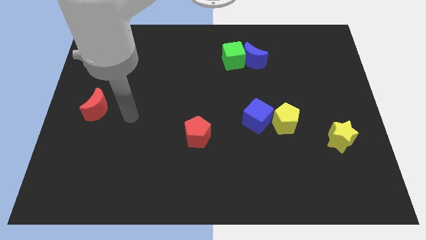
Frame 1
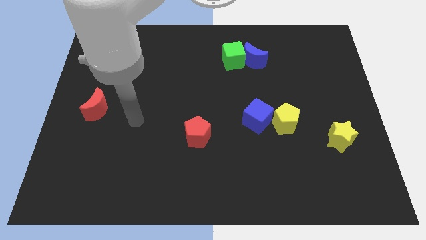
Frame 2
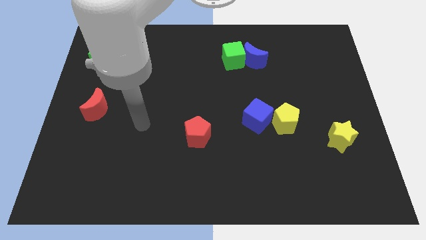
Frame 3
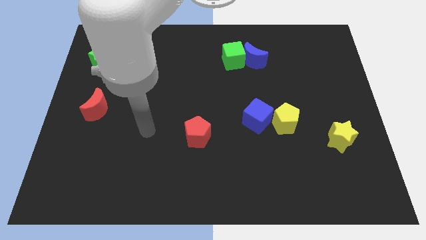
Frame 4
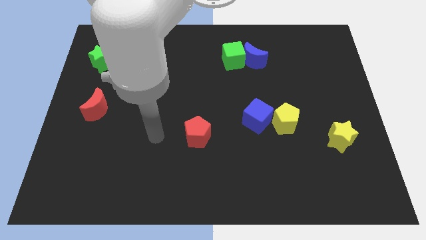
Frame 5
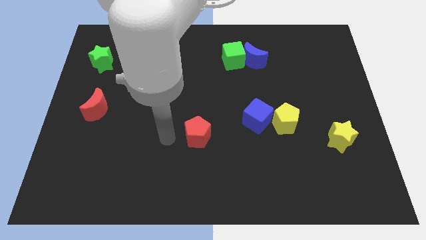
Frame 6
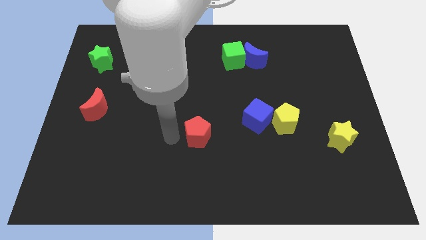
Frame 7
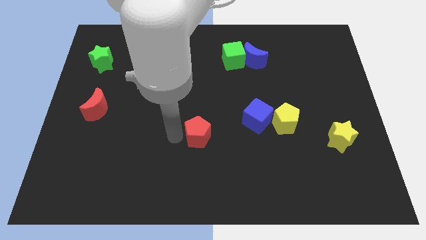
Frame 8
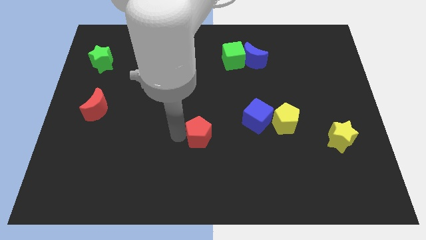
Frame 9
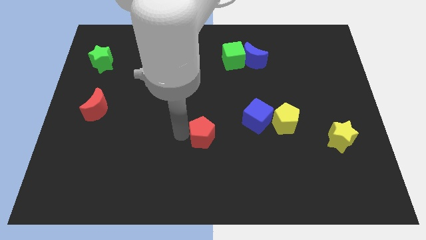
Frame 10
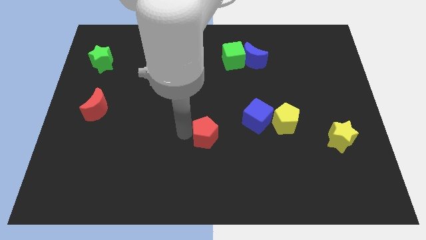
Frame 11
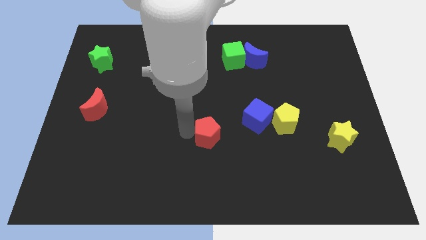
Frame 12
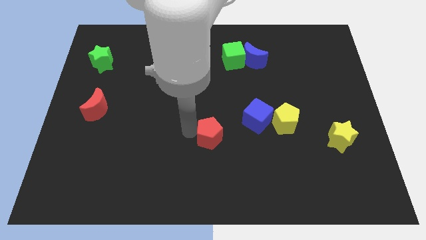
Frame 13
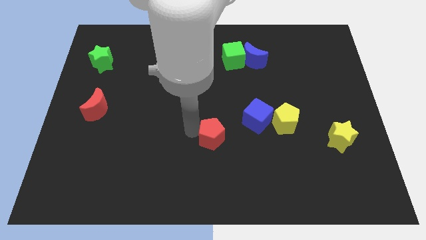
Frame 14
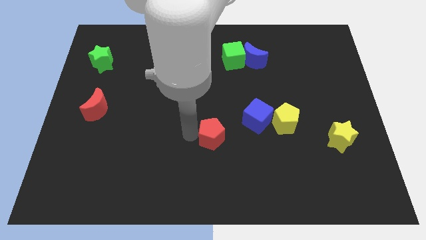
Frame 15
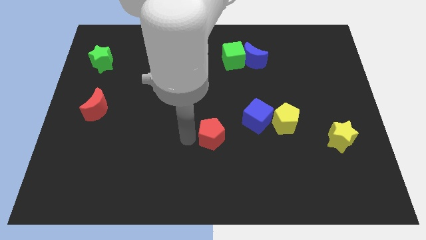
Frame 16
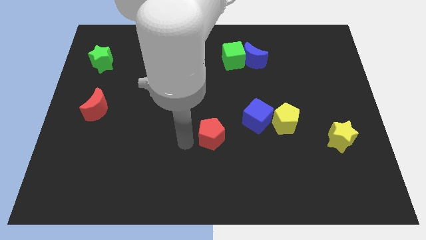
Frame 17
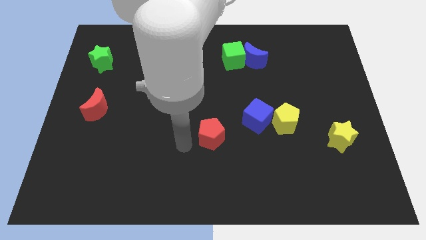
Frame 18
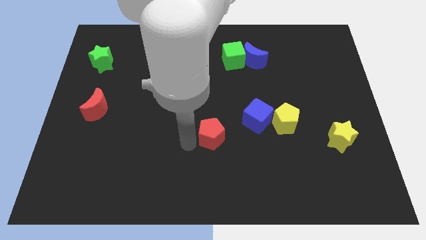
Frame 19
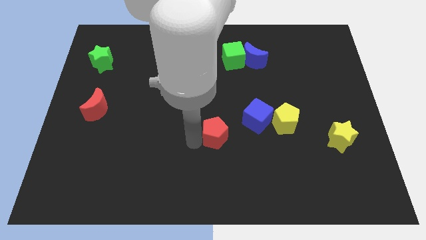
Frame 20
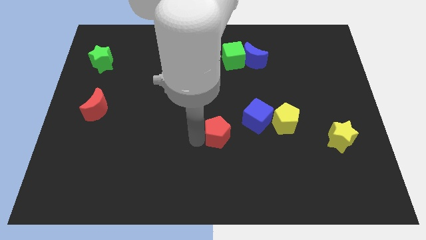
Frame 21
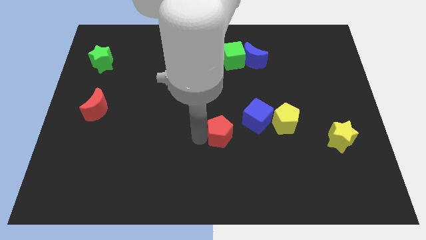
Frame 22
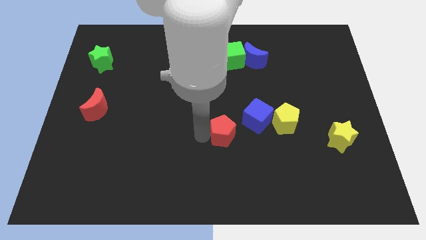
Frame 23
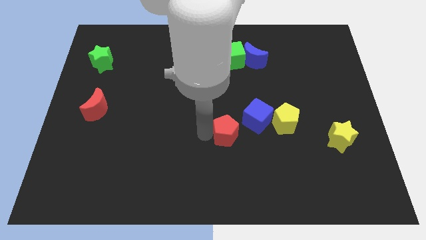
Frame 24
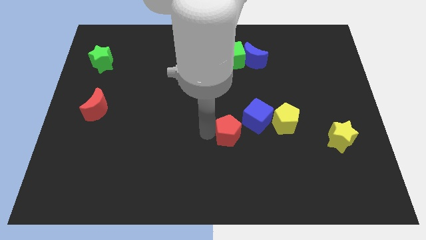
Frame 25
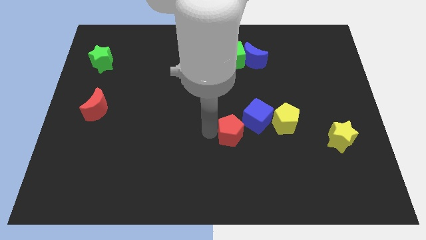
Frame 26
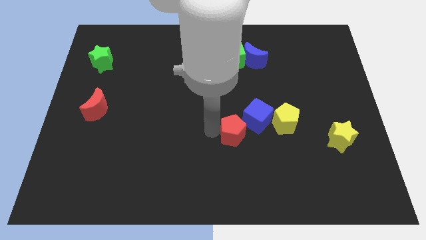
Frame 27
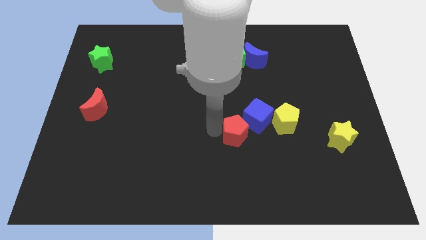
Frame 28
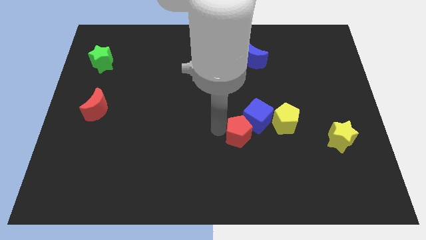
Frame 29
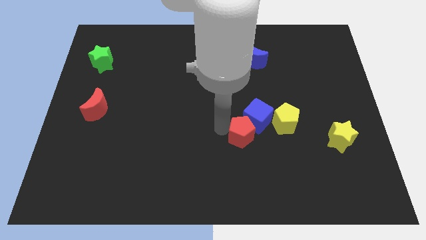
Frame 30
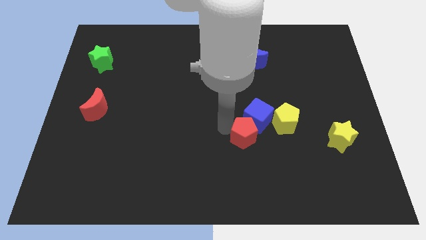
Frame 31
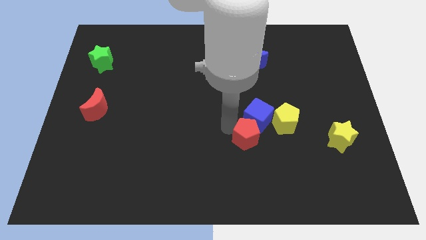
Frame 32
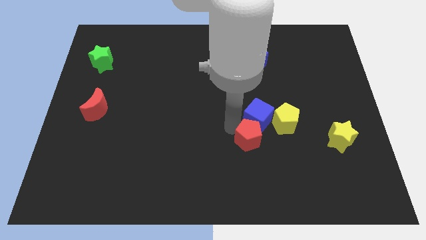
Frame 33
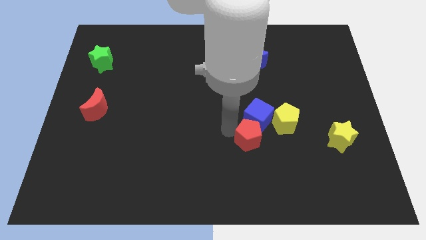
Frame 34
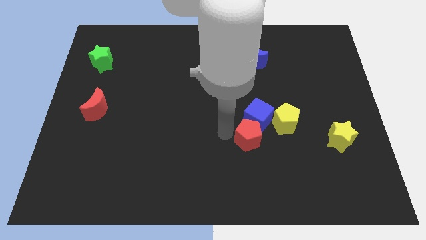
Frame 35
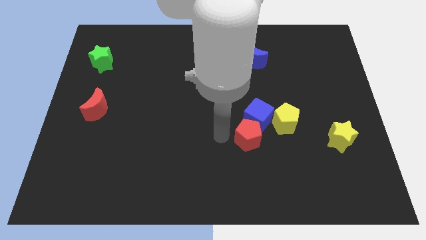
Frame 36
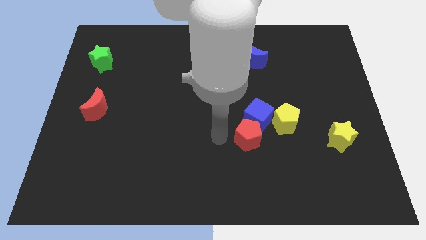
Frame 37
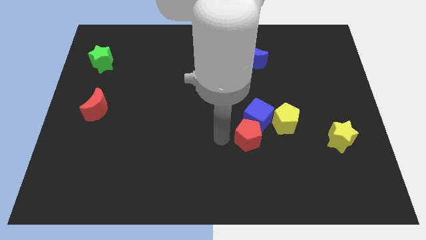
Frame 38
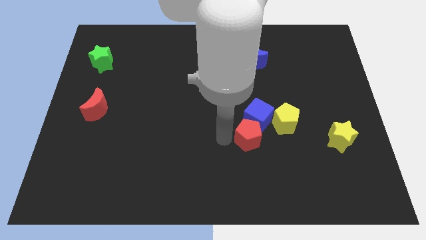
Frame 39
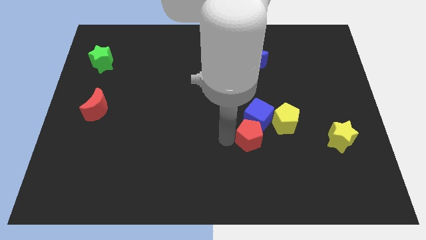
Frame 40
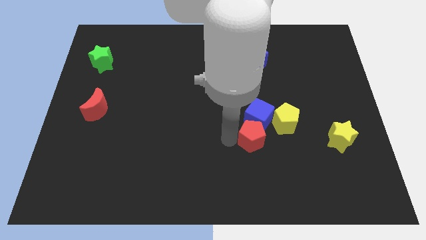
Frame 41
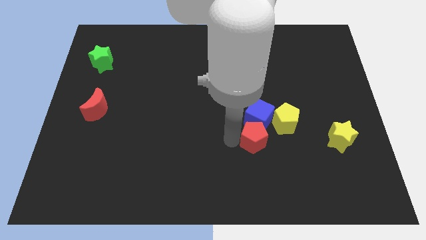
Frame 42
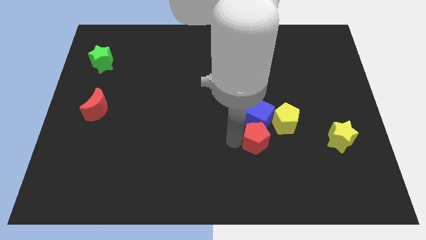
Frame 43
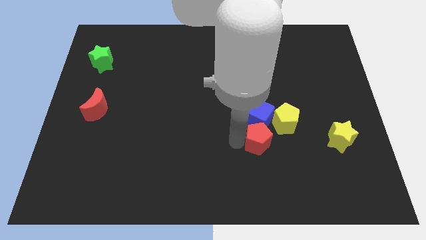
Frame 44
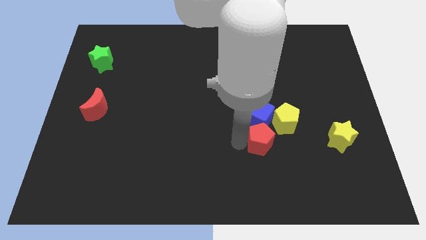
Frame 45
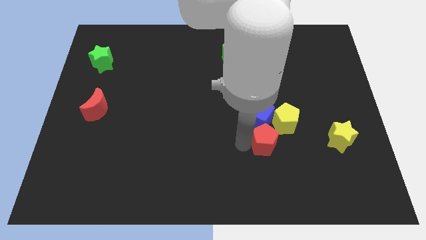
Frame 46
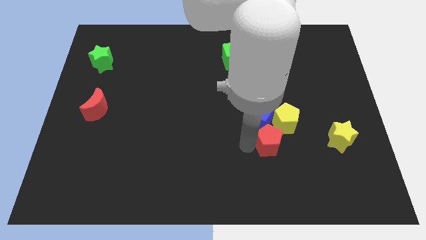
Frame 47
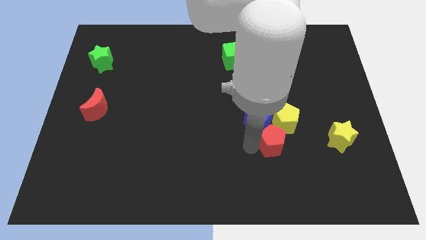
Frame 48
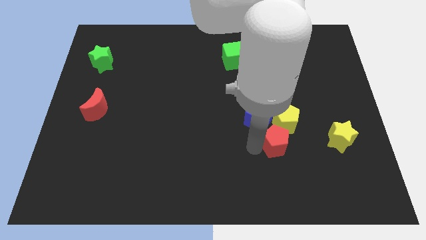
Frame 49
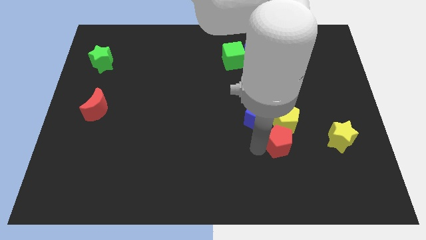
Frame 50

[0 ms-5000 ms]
push the red pentagon next to the yellow pentagon

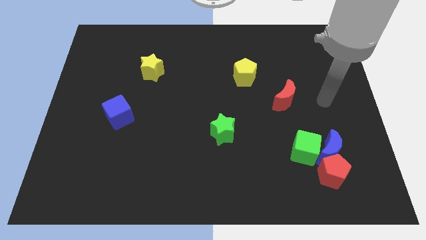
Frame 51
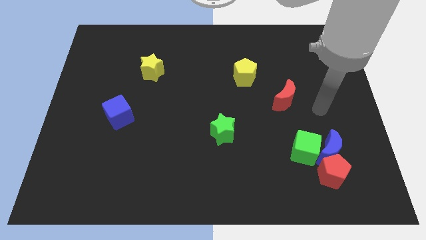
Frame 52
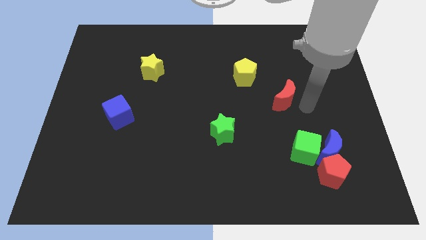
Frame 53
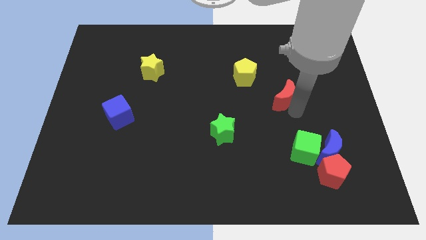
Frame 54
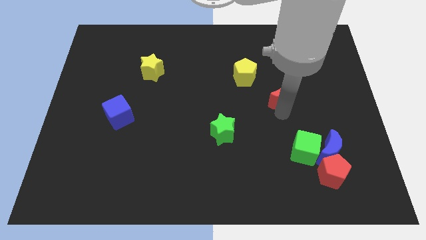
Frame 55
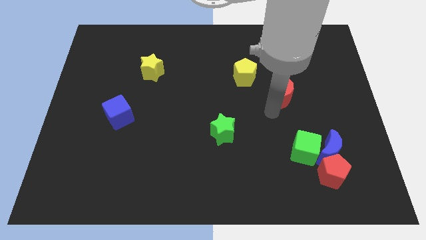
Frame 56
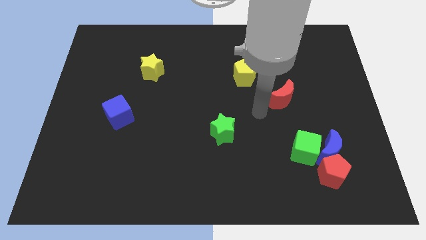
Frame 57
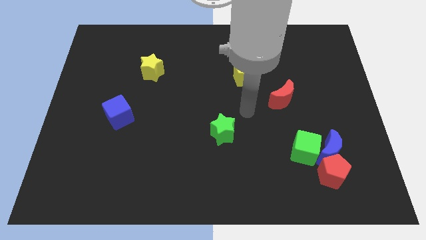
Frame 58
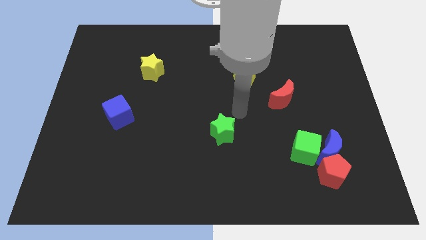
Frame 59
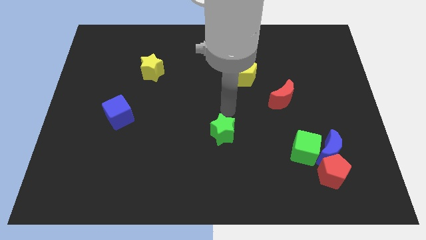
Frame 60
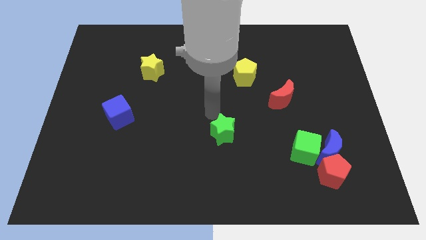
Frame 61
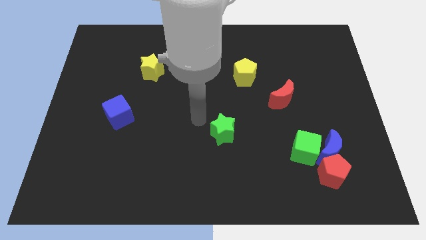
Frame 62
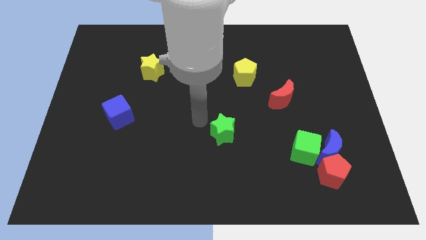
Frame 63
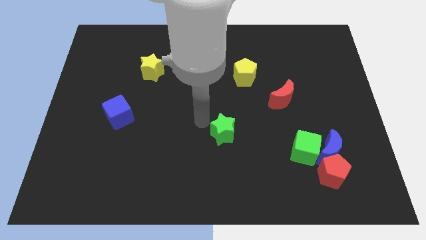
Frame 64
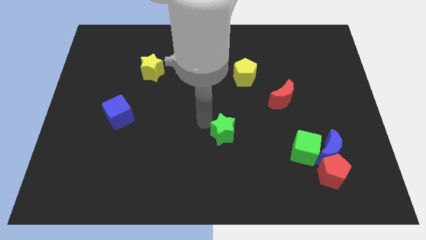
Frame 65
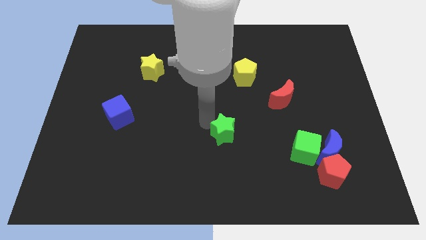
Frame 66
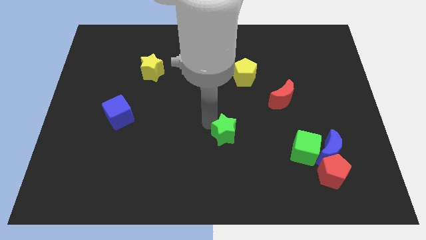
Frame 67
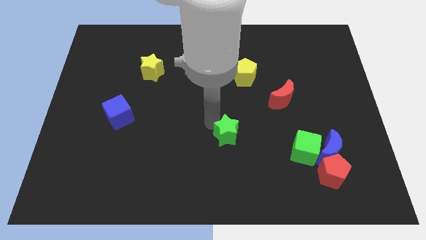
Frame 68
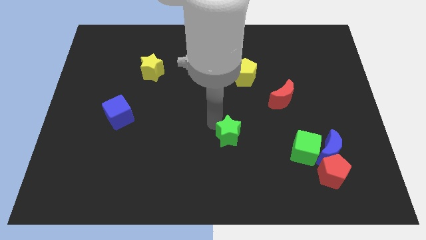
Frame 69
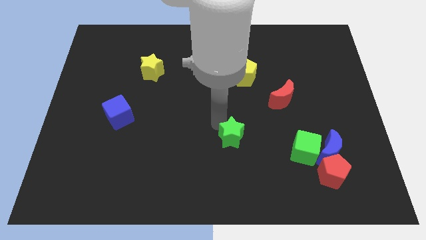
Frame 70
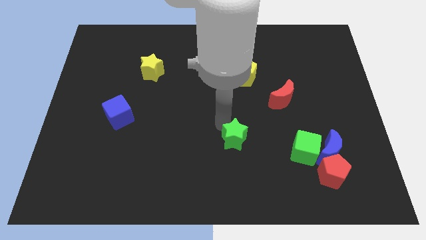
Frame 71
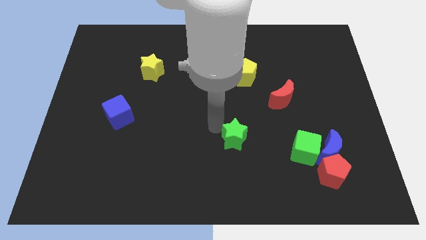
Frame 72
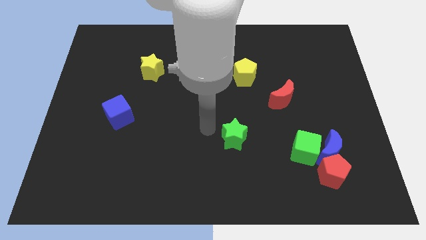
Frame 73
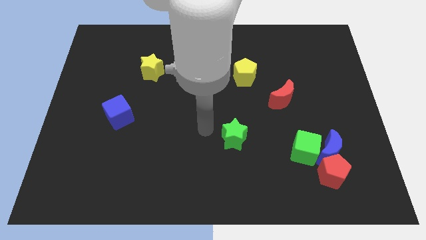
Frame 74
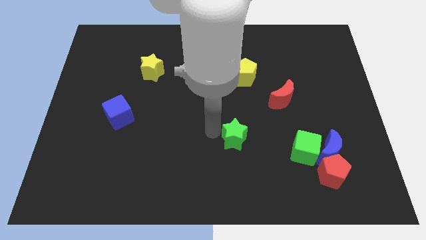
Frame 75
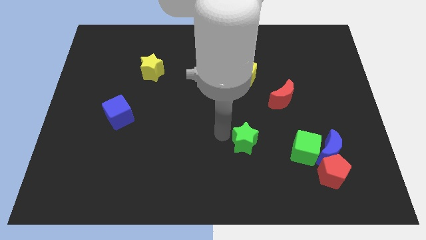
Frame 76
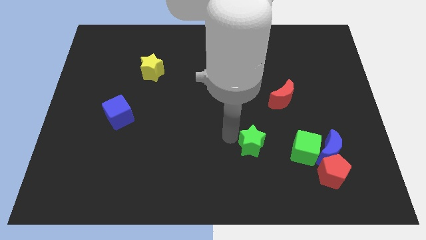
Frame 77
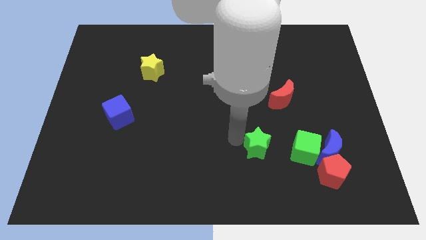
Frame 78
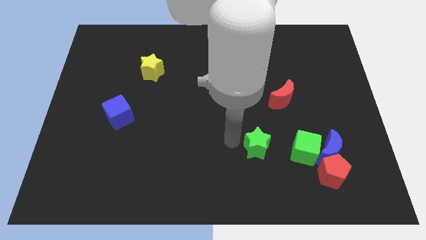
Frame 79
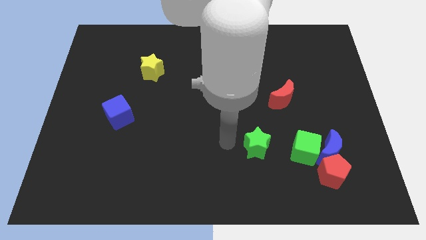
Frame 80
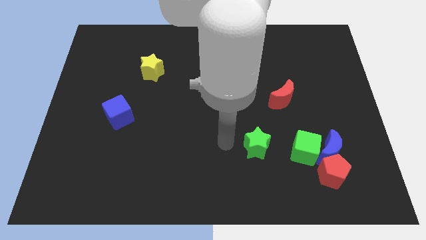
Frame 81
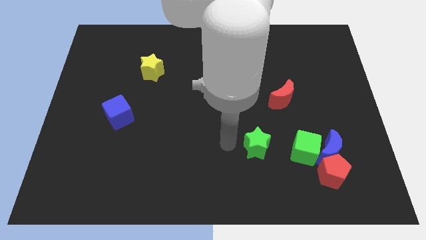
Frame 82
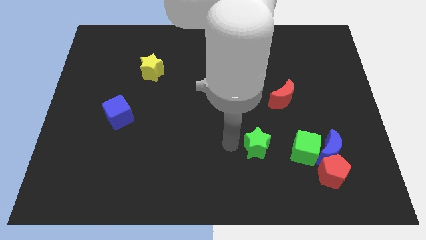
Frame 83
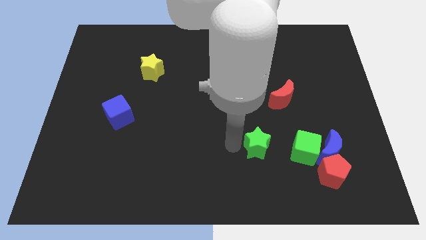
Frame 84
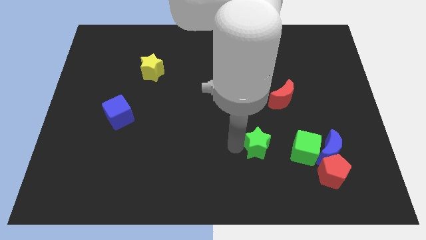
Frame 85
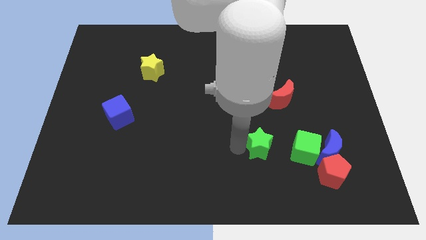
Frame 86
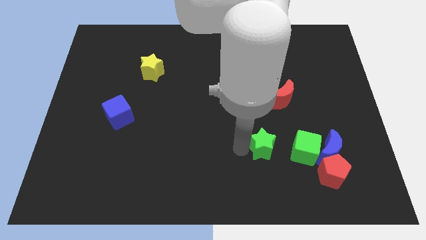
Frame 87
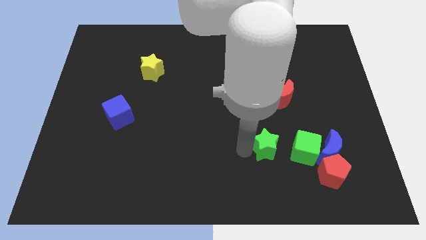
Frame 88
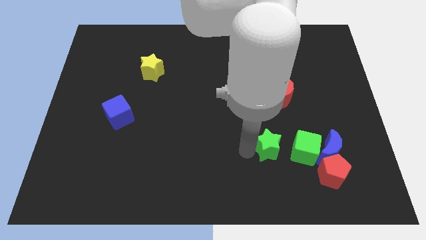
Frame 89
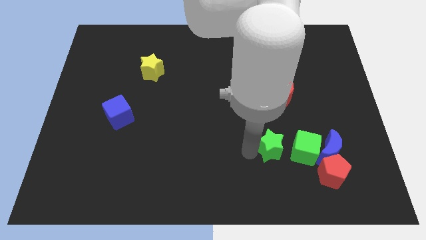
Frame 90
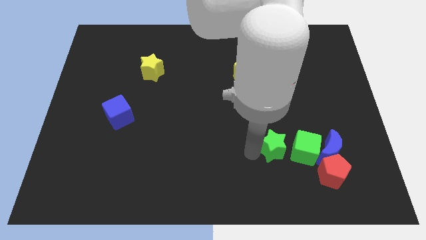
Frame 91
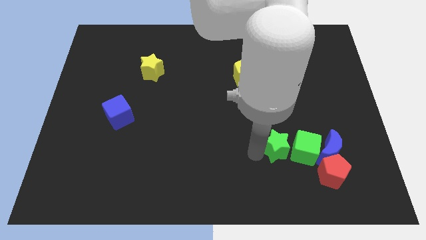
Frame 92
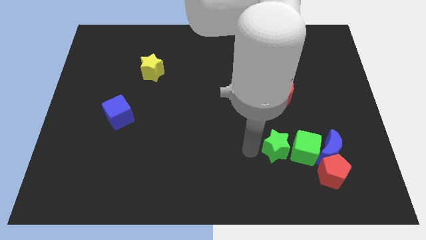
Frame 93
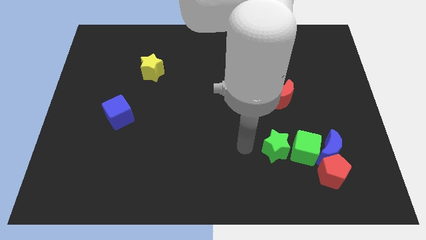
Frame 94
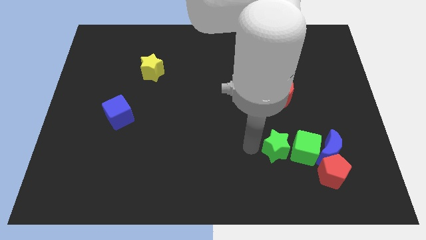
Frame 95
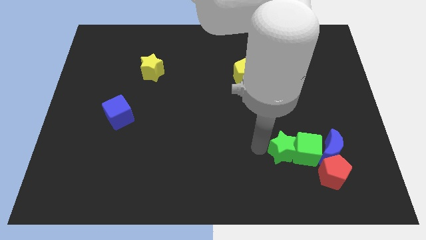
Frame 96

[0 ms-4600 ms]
put the green star close to the green cube
